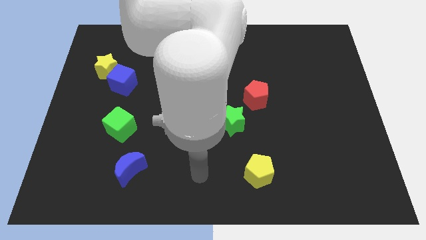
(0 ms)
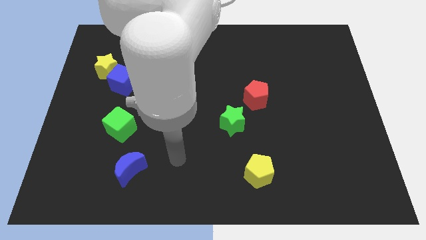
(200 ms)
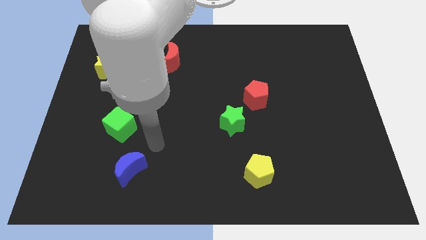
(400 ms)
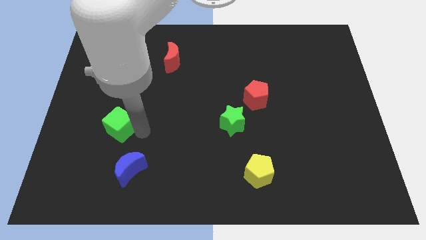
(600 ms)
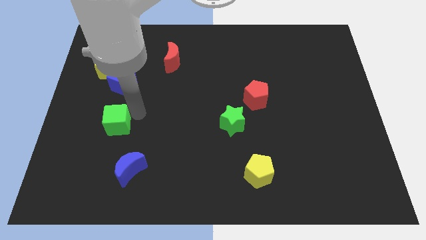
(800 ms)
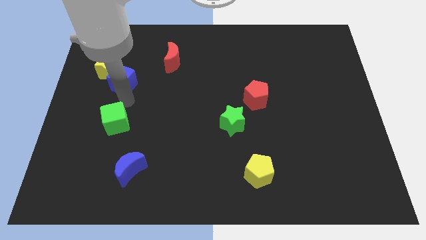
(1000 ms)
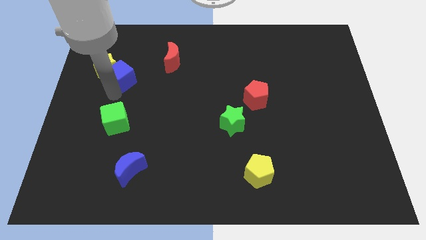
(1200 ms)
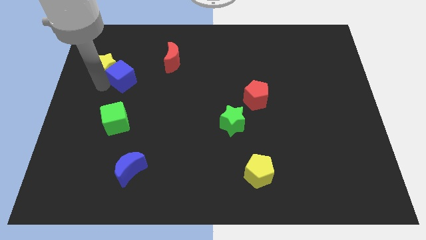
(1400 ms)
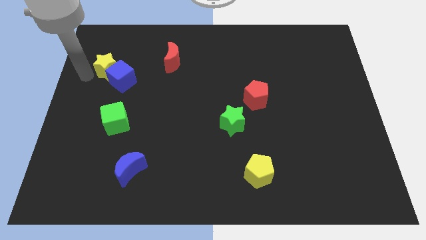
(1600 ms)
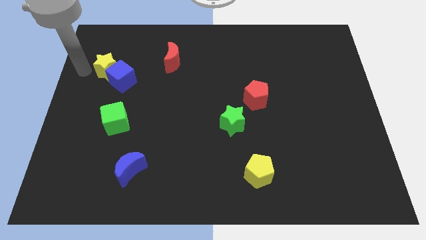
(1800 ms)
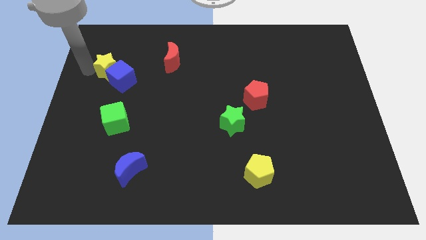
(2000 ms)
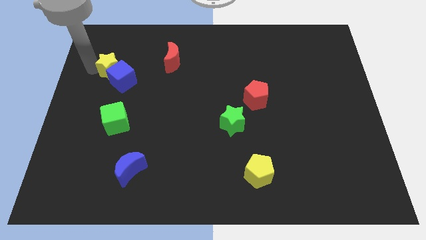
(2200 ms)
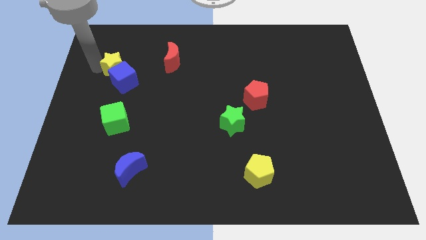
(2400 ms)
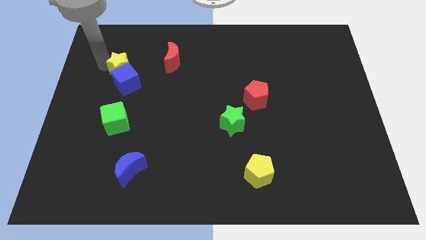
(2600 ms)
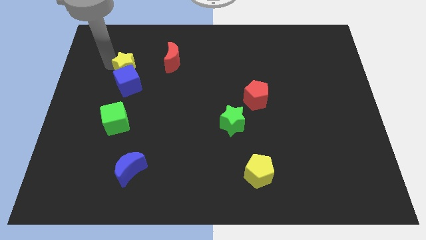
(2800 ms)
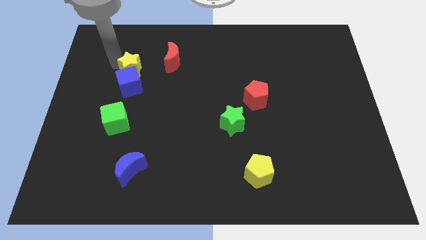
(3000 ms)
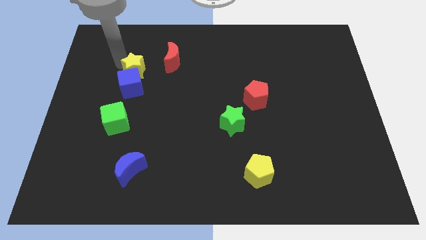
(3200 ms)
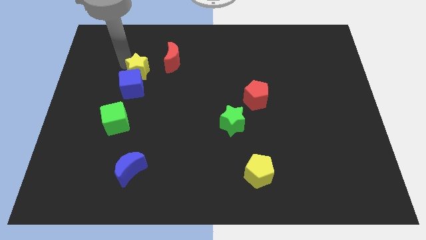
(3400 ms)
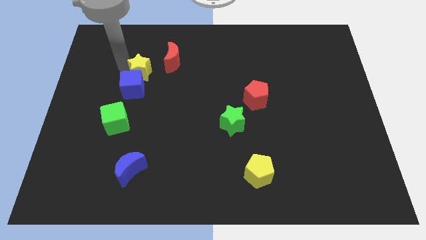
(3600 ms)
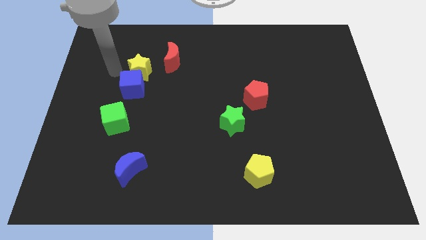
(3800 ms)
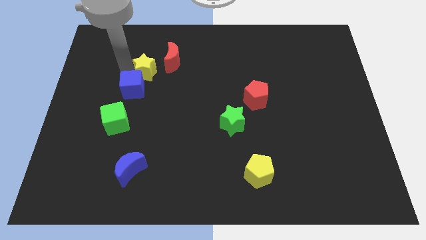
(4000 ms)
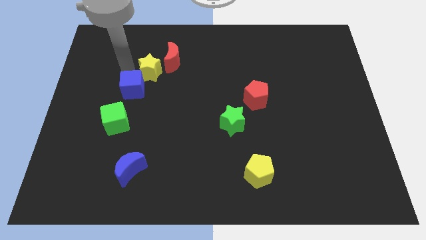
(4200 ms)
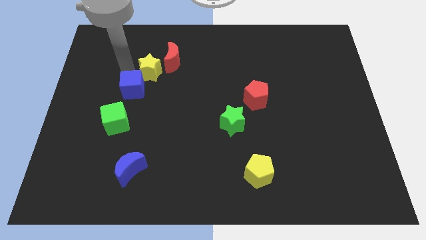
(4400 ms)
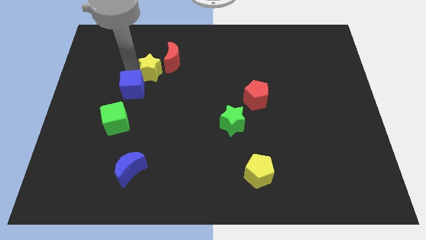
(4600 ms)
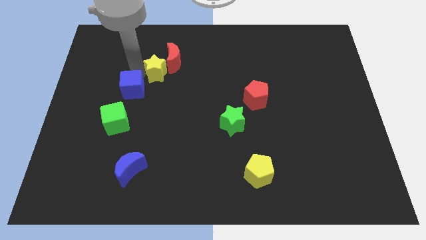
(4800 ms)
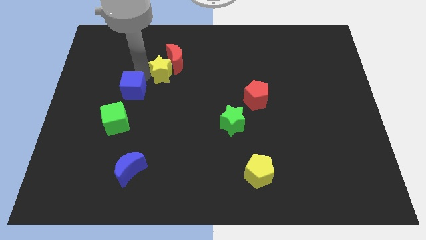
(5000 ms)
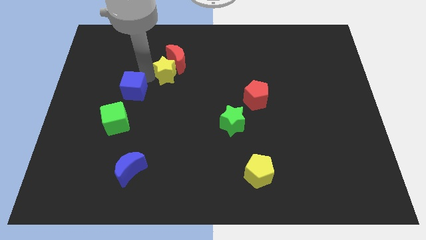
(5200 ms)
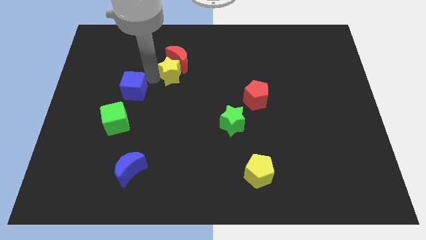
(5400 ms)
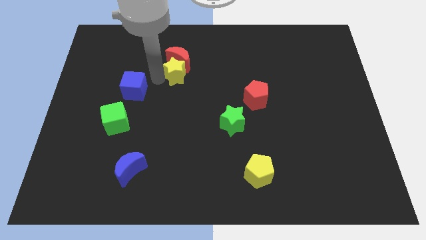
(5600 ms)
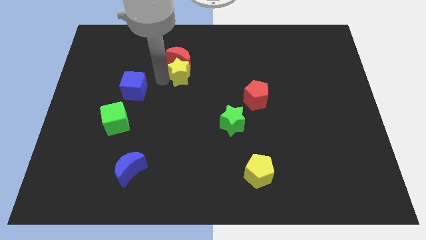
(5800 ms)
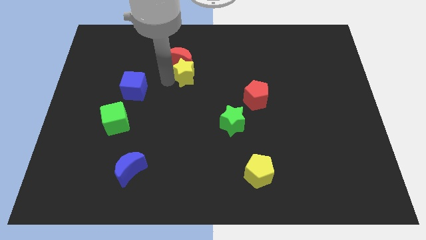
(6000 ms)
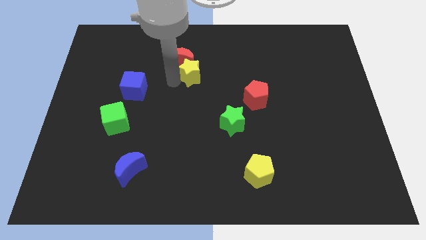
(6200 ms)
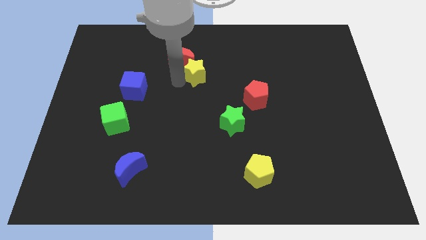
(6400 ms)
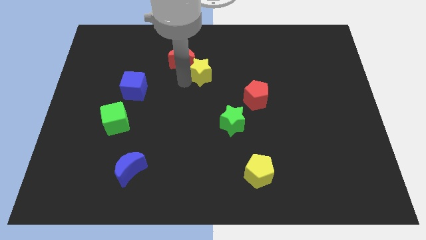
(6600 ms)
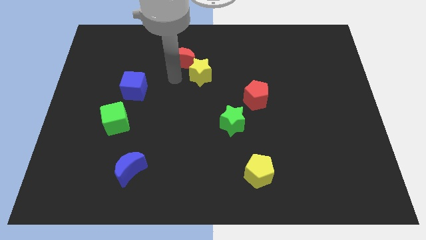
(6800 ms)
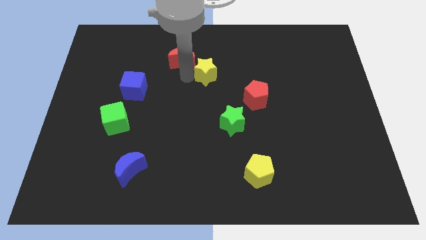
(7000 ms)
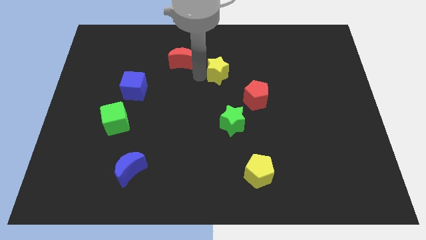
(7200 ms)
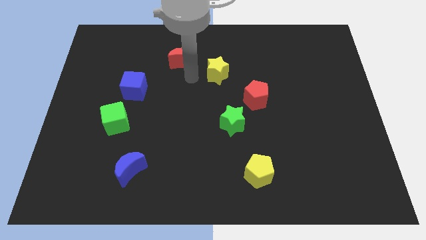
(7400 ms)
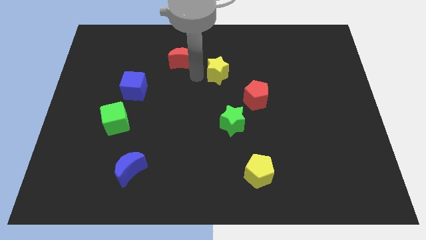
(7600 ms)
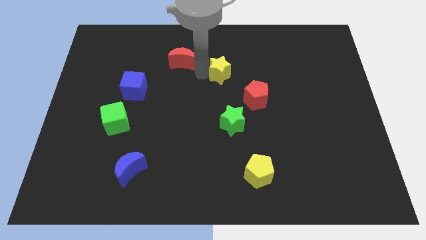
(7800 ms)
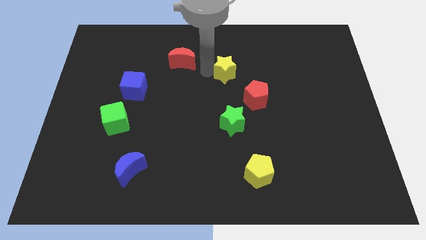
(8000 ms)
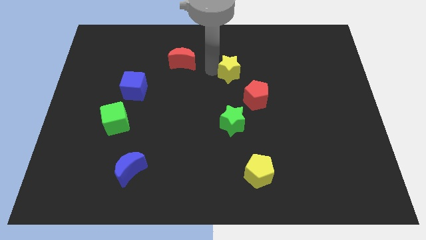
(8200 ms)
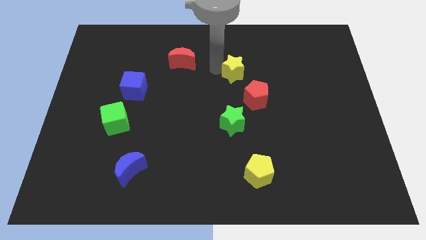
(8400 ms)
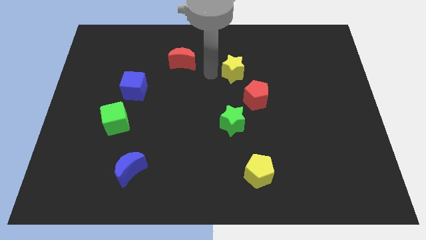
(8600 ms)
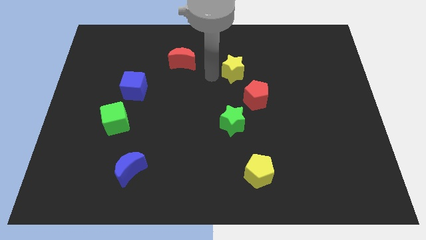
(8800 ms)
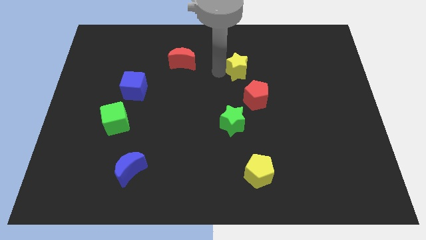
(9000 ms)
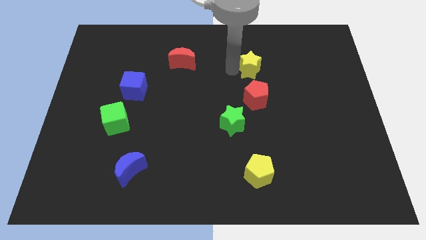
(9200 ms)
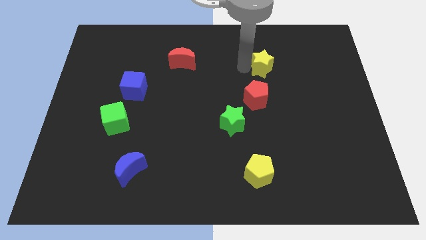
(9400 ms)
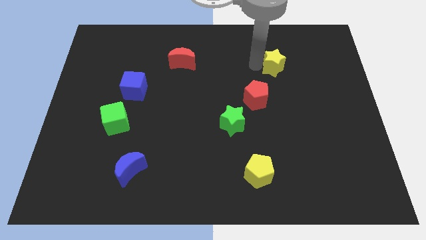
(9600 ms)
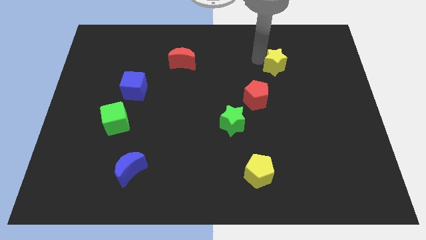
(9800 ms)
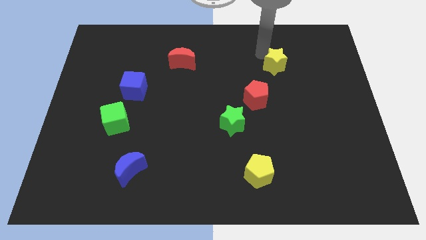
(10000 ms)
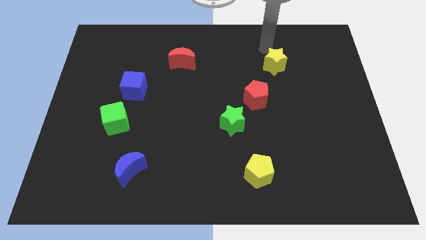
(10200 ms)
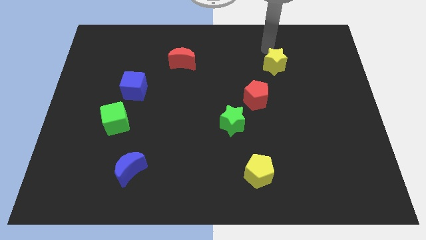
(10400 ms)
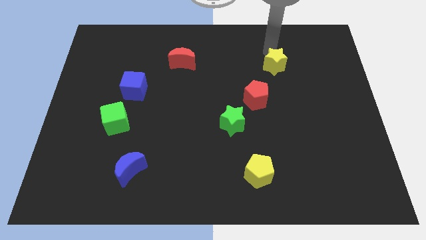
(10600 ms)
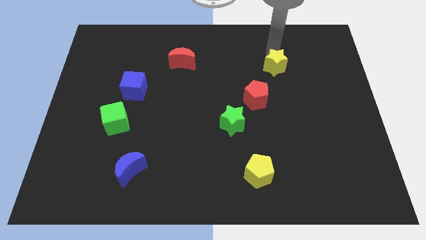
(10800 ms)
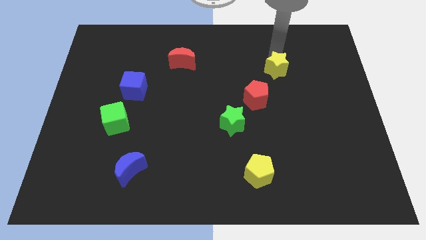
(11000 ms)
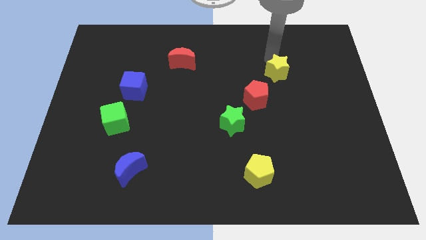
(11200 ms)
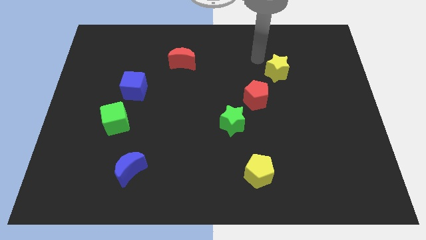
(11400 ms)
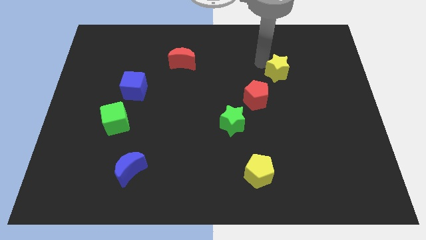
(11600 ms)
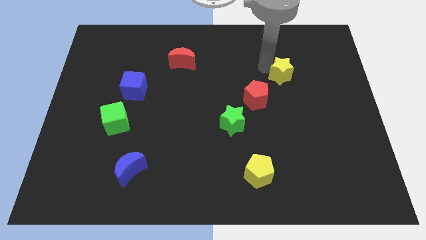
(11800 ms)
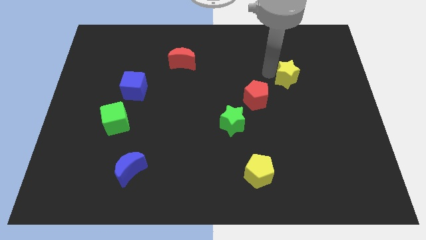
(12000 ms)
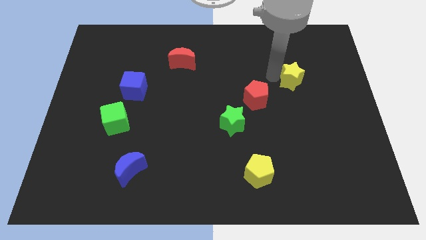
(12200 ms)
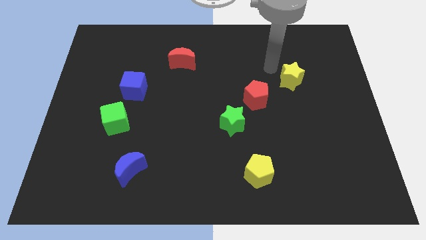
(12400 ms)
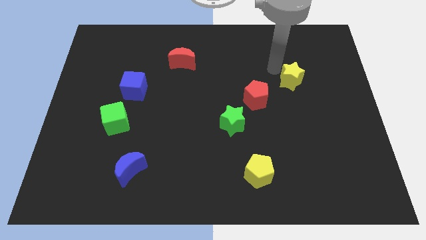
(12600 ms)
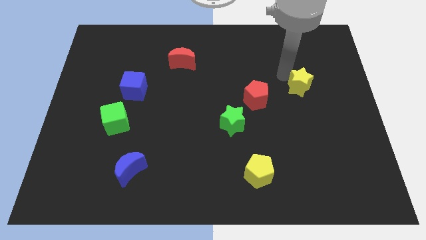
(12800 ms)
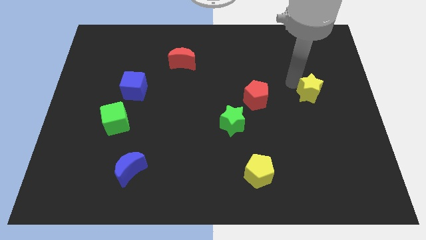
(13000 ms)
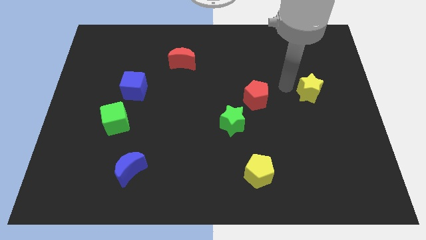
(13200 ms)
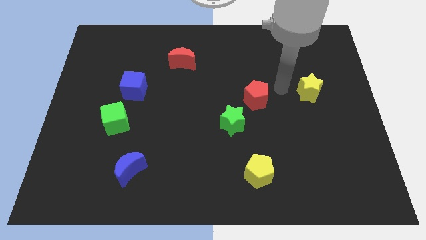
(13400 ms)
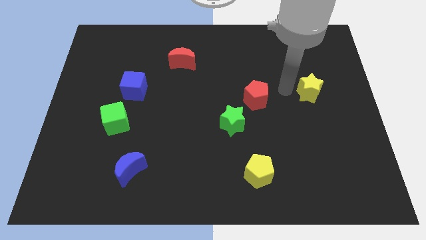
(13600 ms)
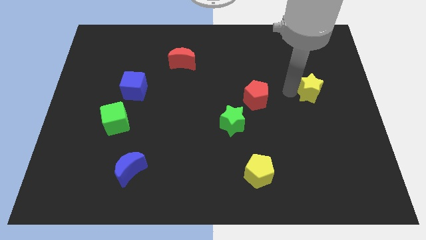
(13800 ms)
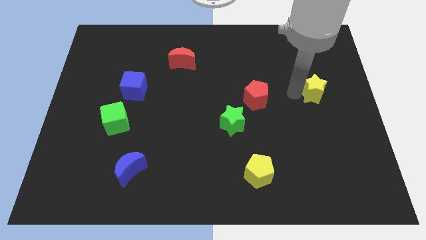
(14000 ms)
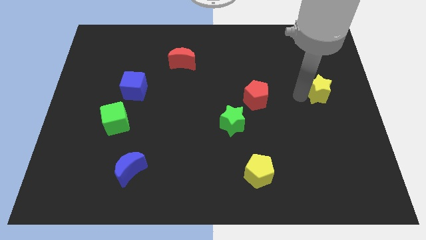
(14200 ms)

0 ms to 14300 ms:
put the yellow star to the right side
